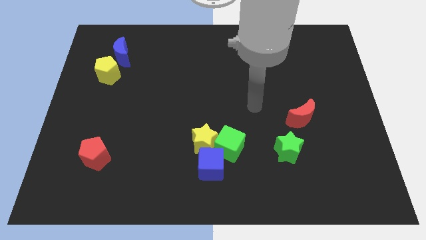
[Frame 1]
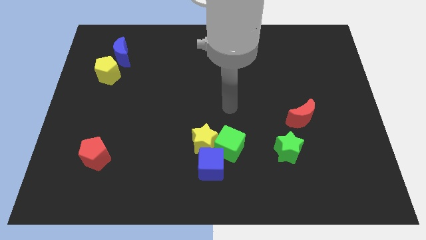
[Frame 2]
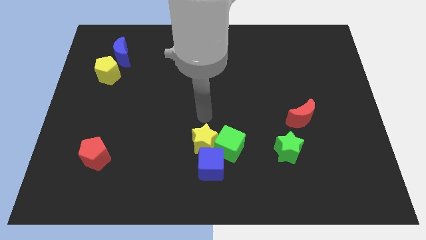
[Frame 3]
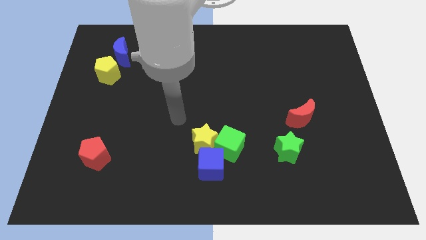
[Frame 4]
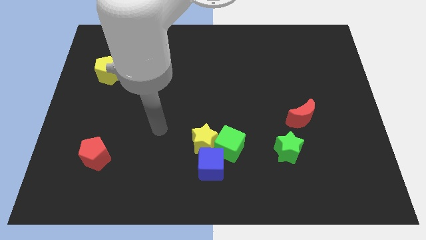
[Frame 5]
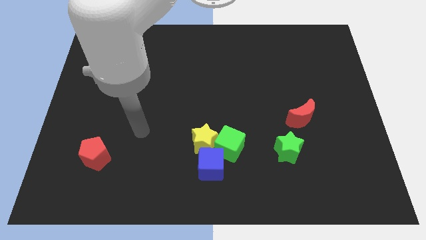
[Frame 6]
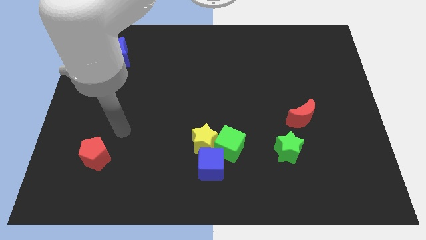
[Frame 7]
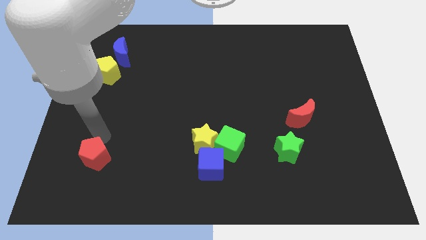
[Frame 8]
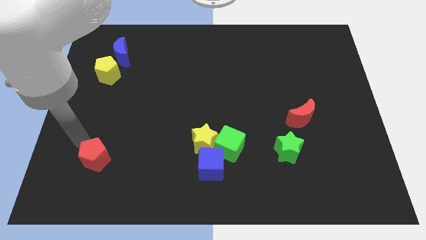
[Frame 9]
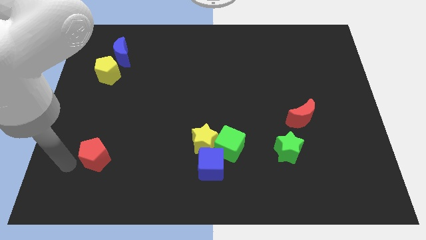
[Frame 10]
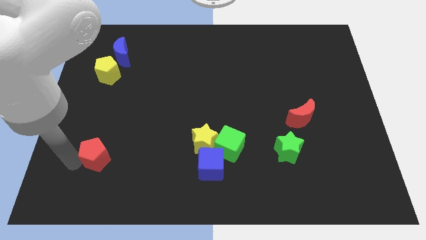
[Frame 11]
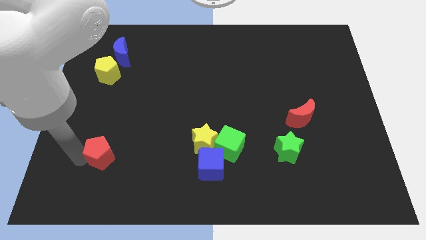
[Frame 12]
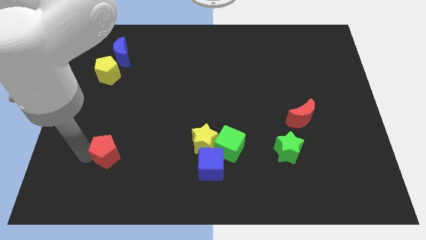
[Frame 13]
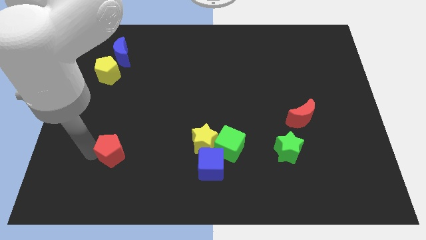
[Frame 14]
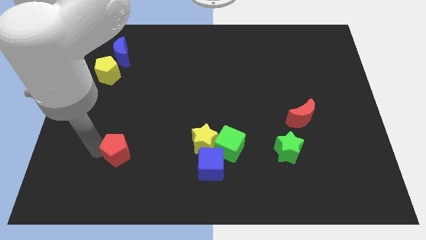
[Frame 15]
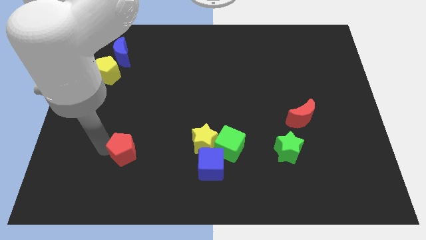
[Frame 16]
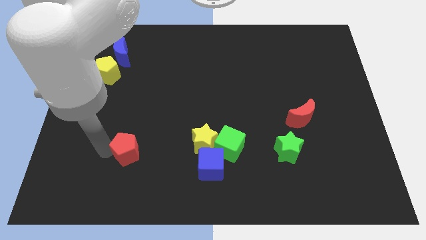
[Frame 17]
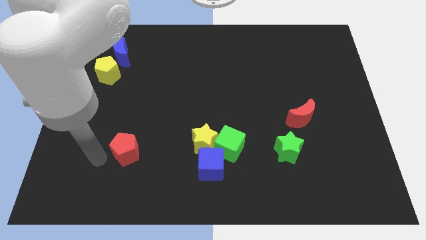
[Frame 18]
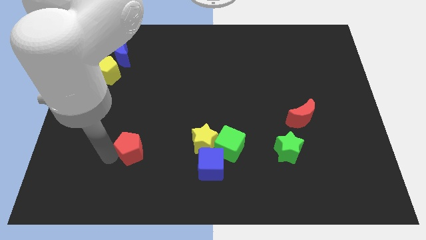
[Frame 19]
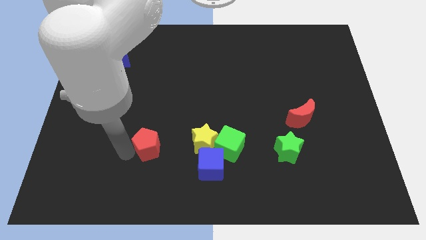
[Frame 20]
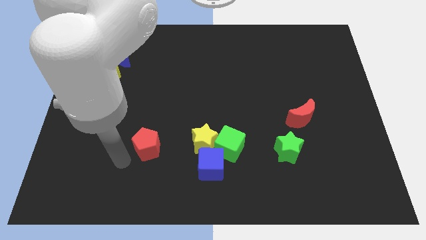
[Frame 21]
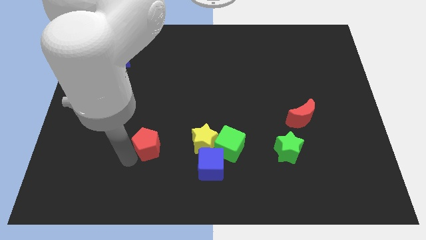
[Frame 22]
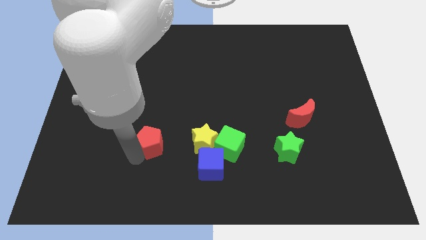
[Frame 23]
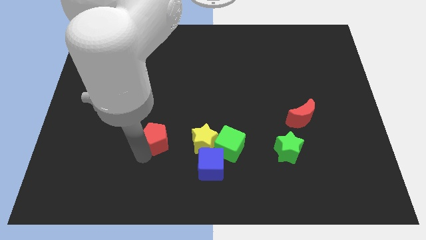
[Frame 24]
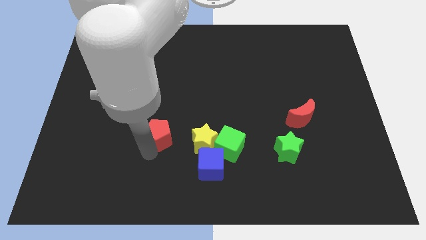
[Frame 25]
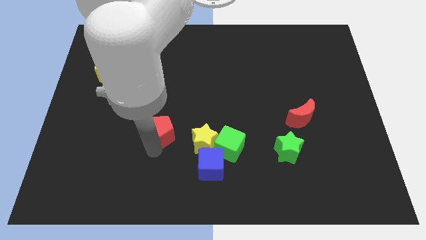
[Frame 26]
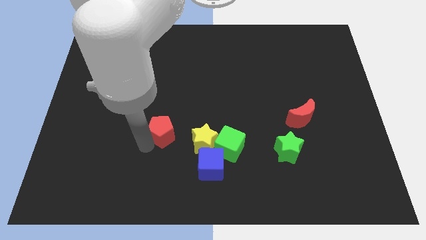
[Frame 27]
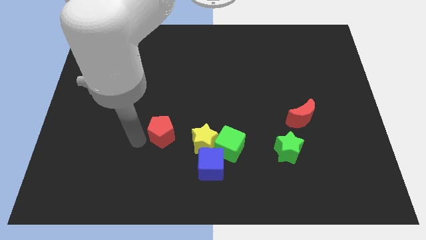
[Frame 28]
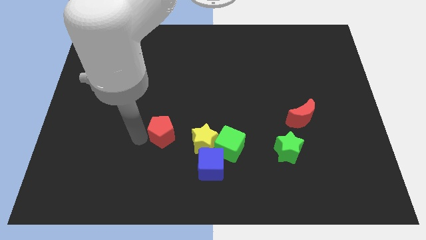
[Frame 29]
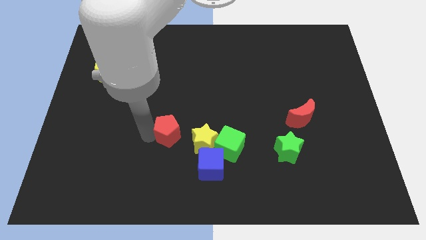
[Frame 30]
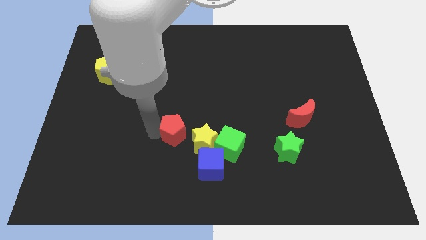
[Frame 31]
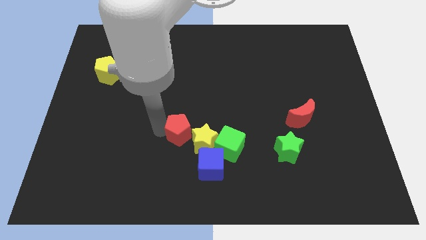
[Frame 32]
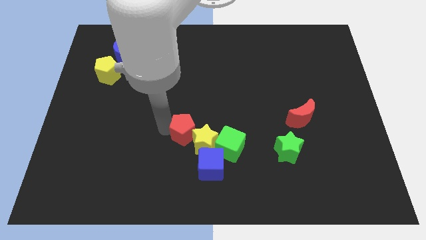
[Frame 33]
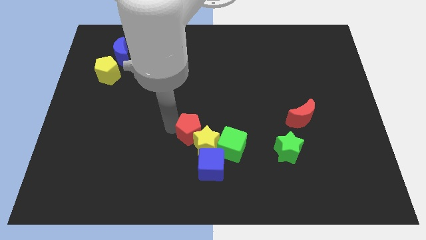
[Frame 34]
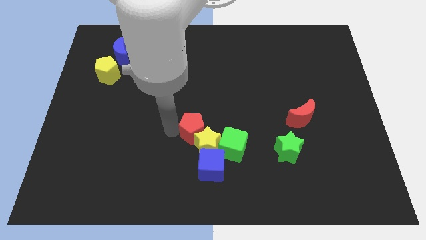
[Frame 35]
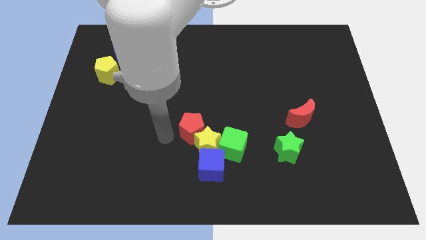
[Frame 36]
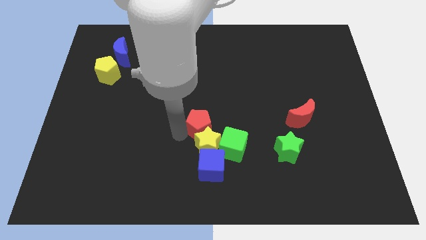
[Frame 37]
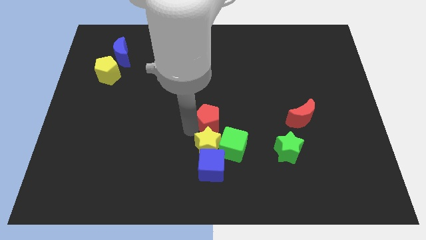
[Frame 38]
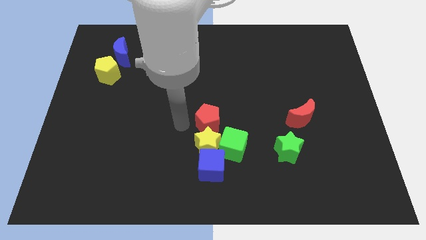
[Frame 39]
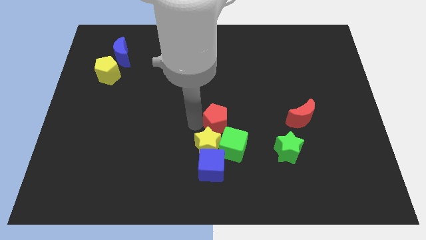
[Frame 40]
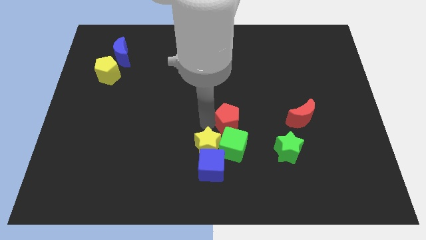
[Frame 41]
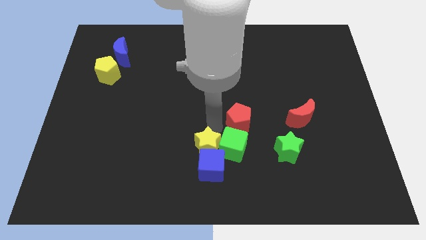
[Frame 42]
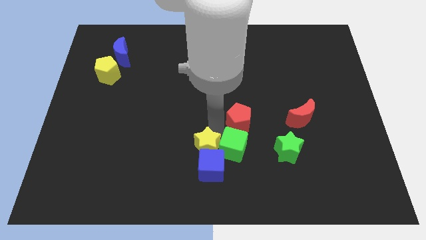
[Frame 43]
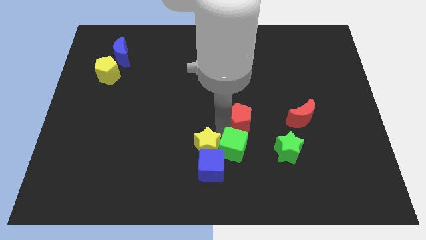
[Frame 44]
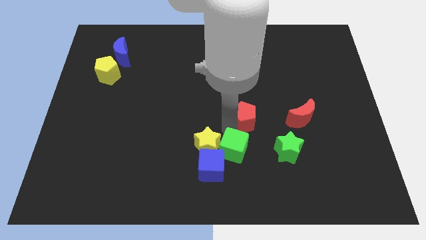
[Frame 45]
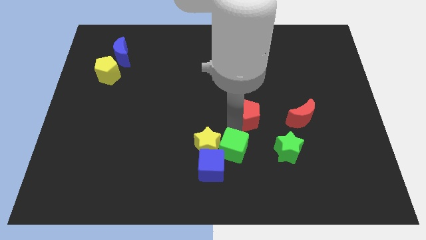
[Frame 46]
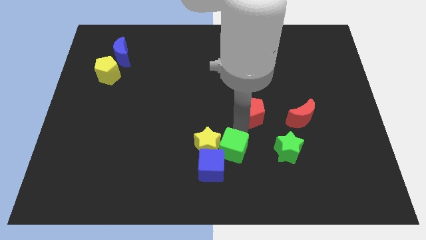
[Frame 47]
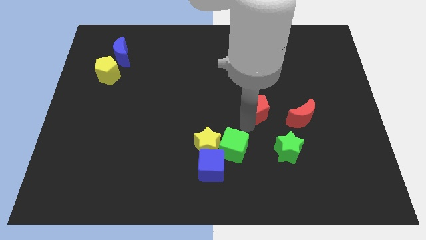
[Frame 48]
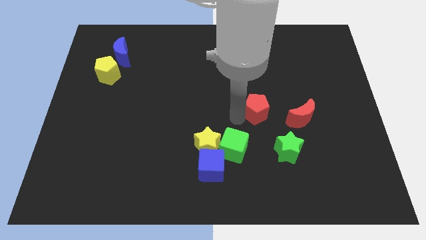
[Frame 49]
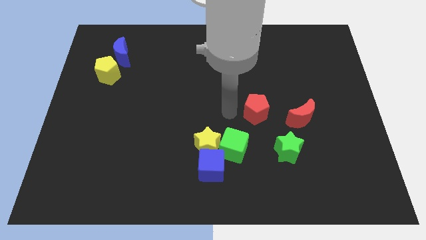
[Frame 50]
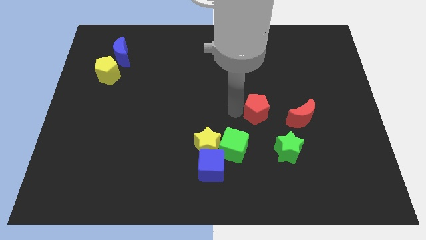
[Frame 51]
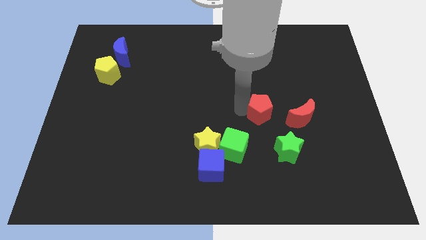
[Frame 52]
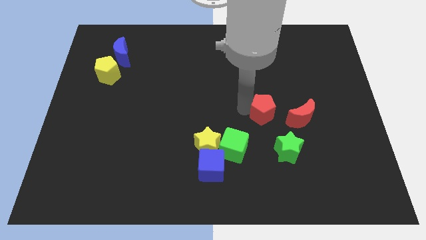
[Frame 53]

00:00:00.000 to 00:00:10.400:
put the red pentagon above the green star

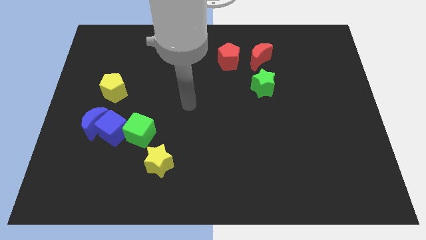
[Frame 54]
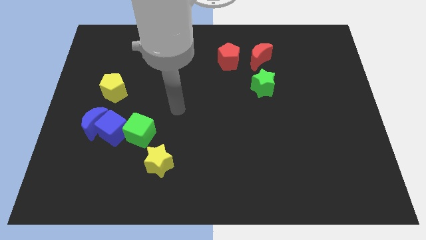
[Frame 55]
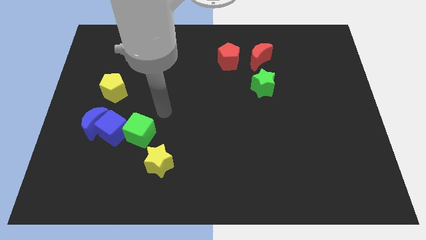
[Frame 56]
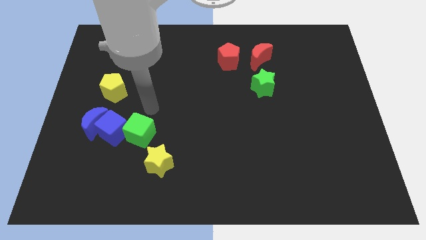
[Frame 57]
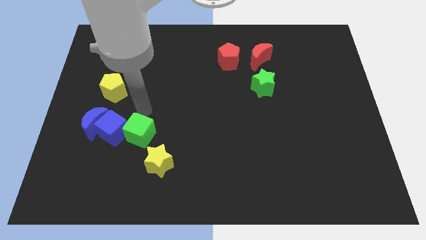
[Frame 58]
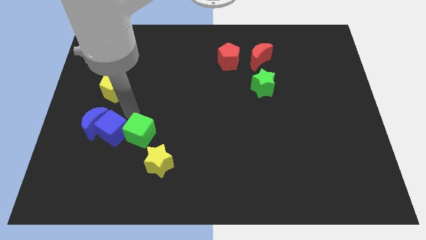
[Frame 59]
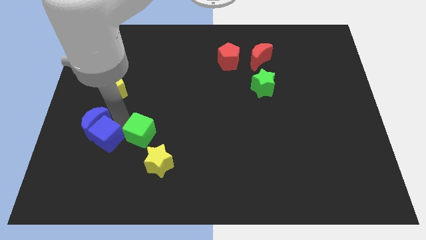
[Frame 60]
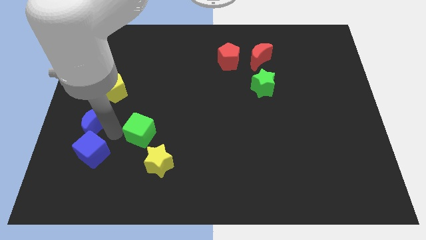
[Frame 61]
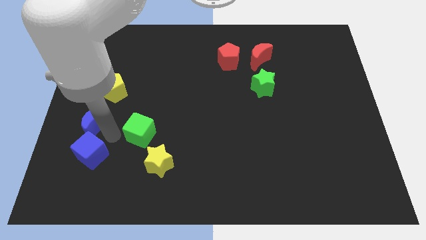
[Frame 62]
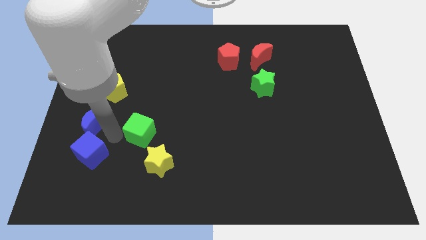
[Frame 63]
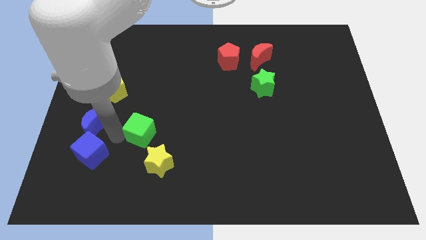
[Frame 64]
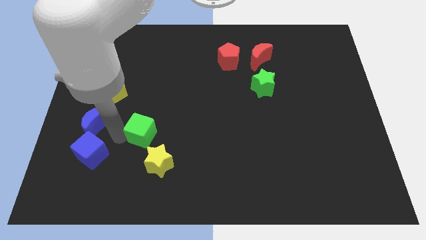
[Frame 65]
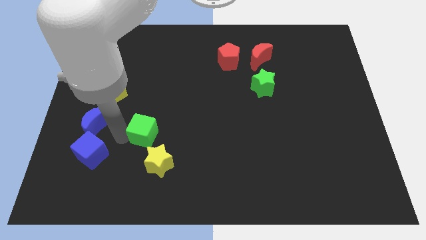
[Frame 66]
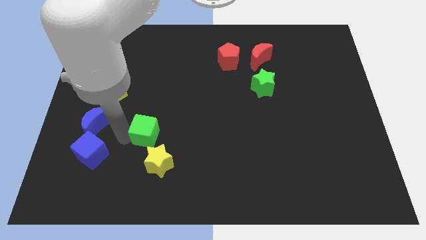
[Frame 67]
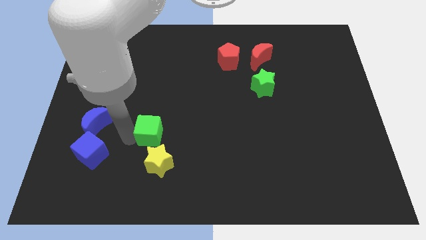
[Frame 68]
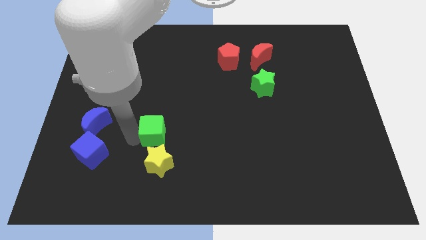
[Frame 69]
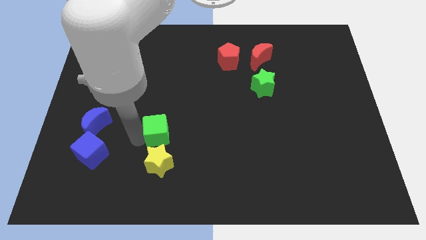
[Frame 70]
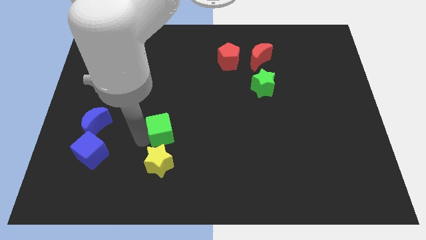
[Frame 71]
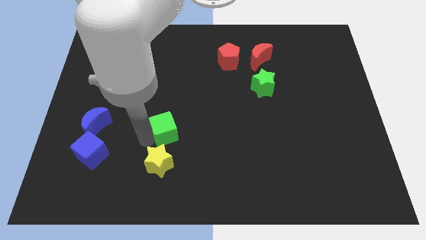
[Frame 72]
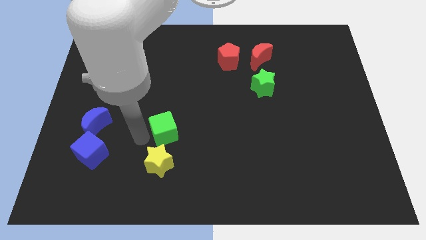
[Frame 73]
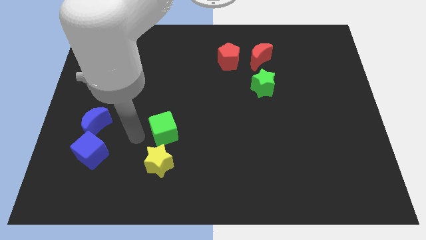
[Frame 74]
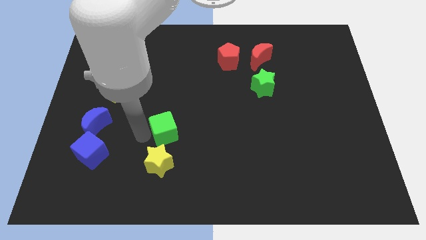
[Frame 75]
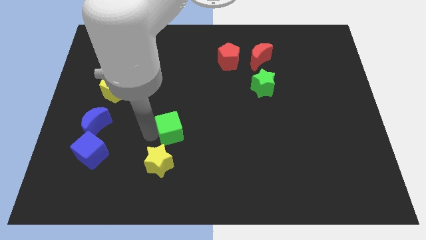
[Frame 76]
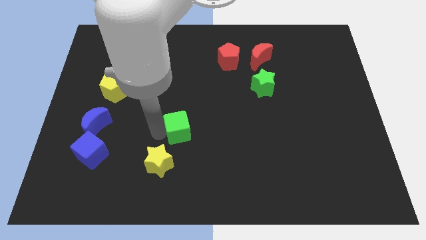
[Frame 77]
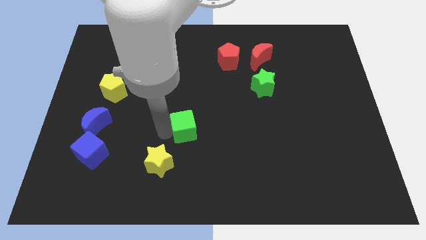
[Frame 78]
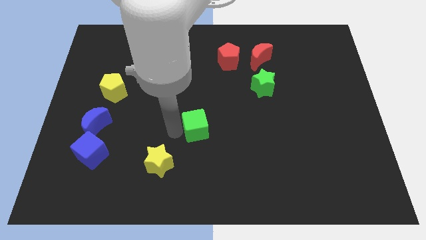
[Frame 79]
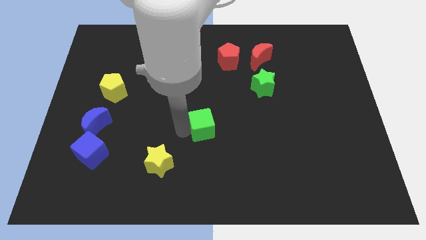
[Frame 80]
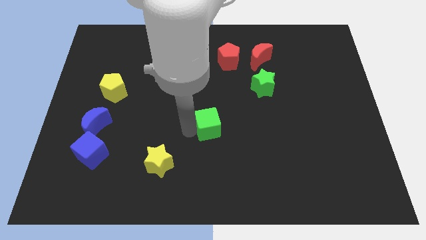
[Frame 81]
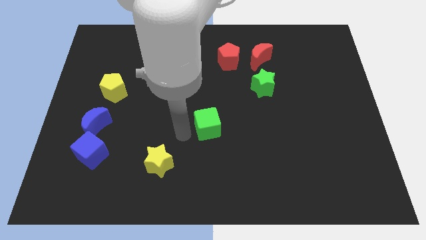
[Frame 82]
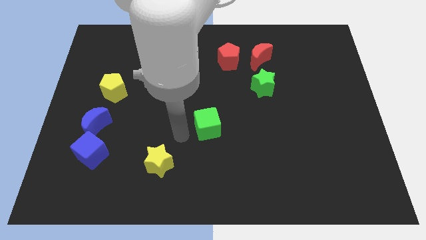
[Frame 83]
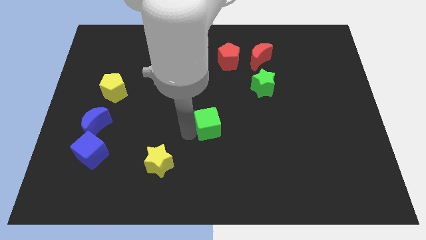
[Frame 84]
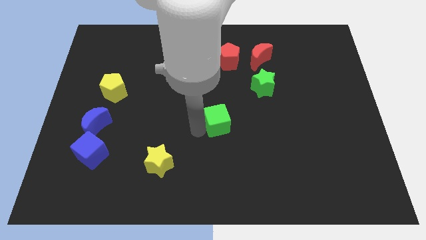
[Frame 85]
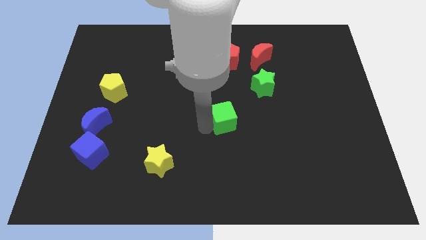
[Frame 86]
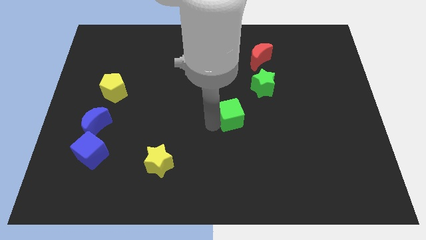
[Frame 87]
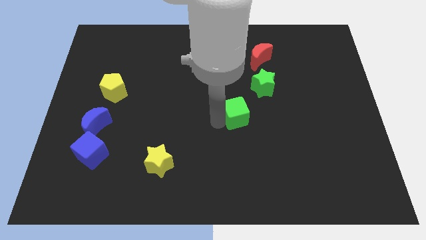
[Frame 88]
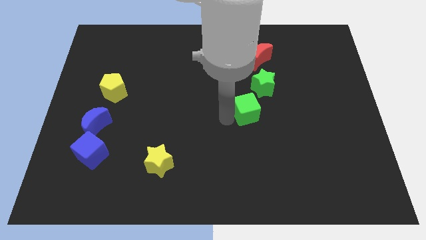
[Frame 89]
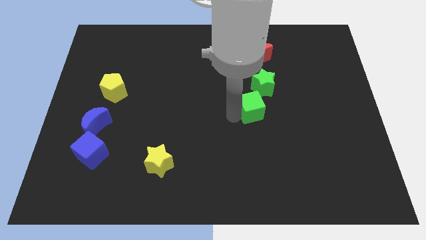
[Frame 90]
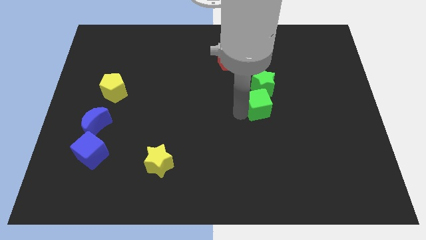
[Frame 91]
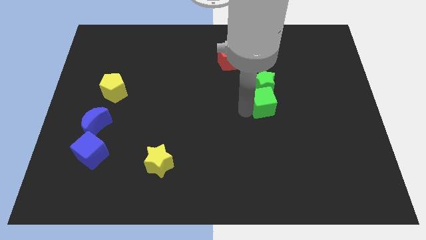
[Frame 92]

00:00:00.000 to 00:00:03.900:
slide the green cube diagonally down and to the right of the green star
